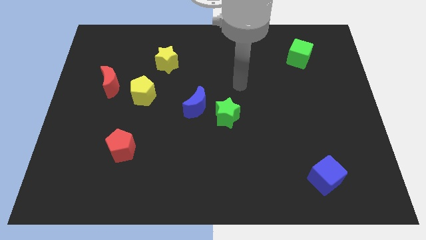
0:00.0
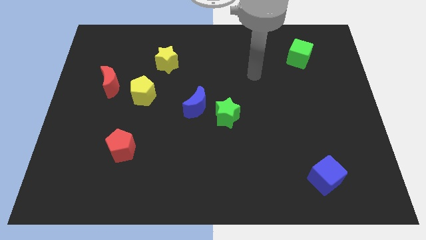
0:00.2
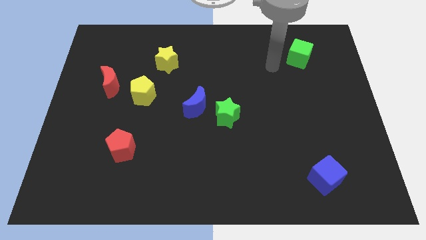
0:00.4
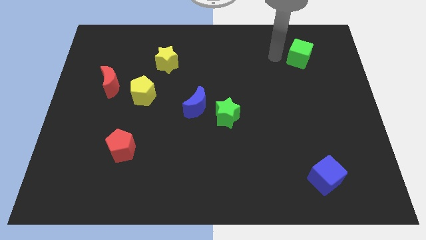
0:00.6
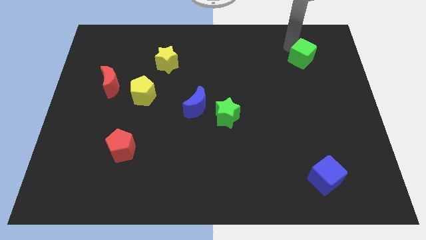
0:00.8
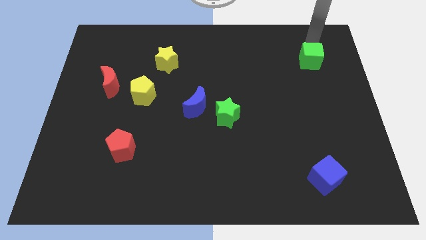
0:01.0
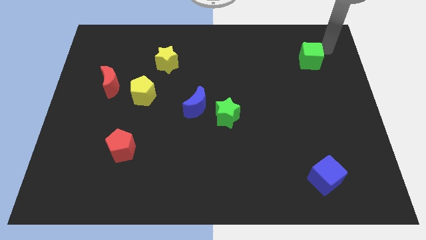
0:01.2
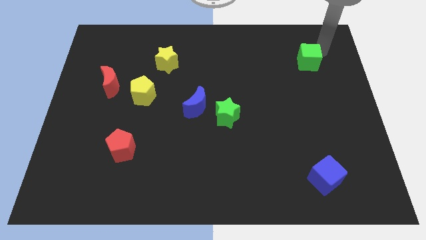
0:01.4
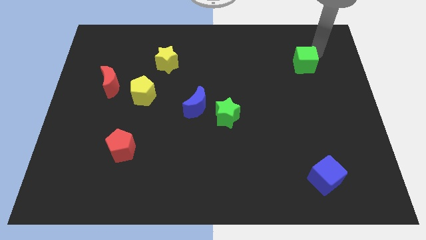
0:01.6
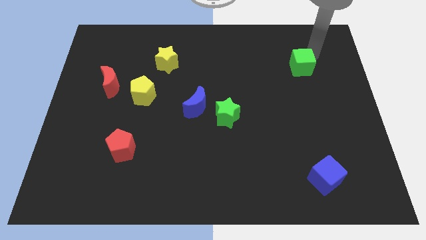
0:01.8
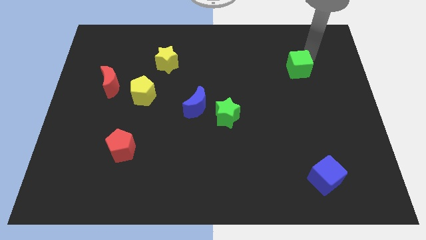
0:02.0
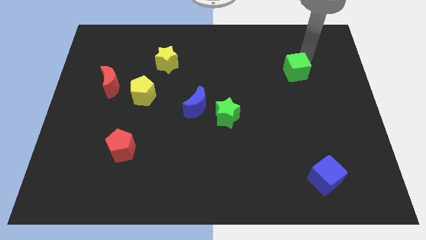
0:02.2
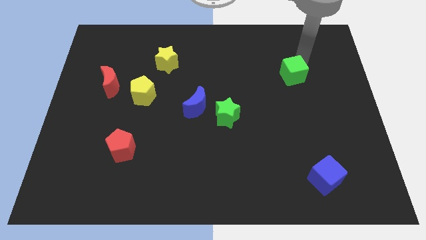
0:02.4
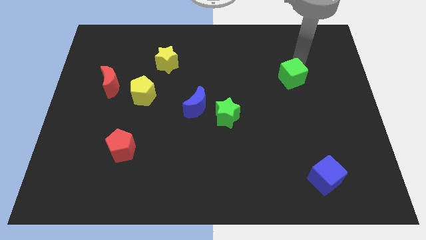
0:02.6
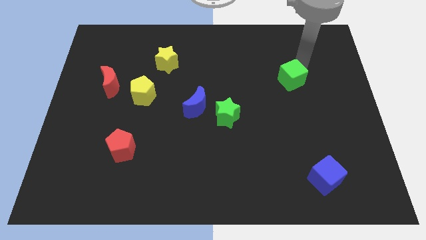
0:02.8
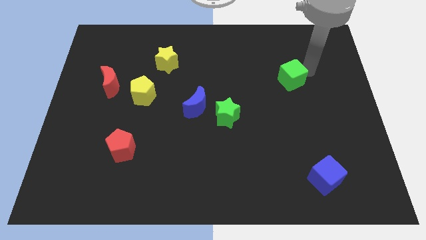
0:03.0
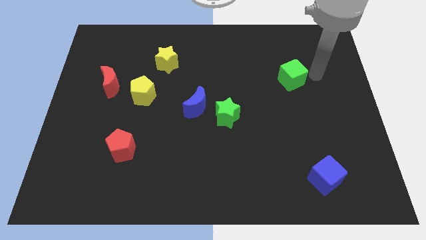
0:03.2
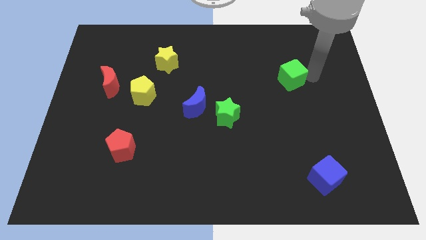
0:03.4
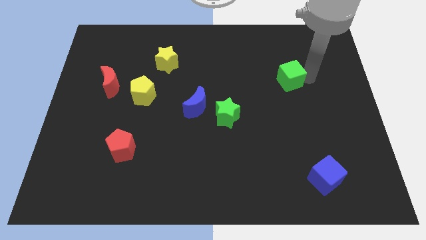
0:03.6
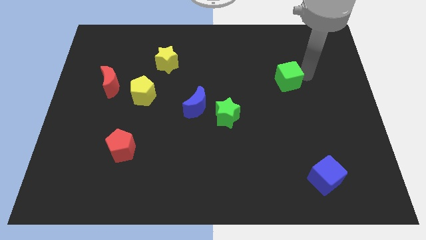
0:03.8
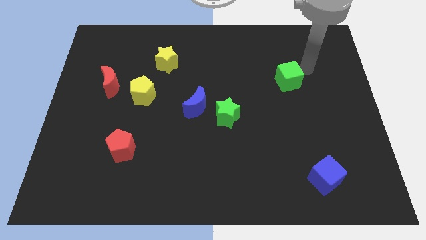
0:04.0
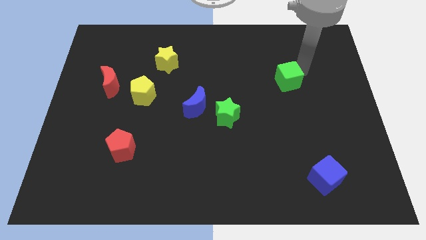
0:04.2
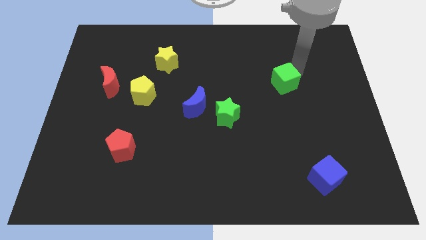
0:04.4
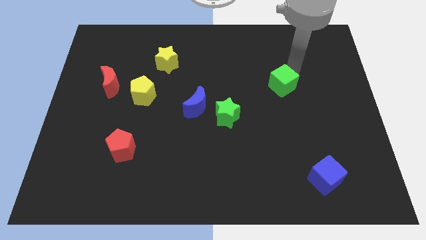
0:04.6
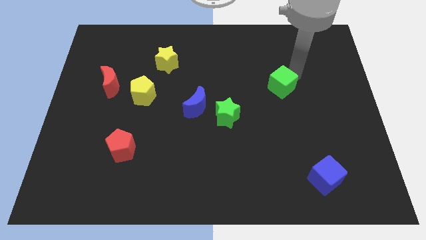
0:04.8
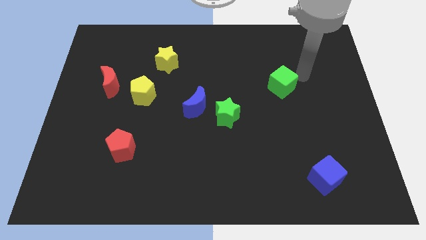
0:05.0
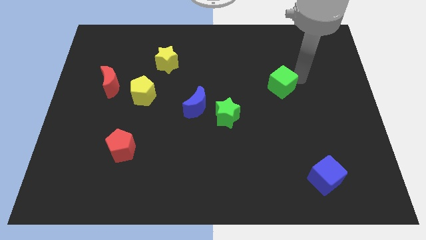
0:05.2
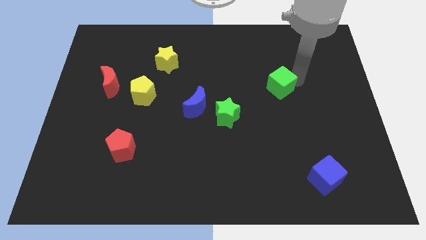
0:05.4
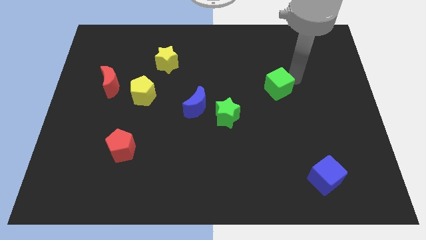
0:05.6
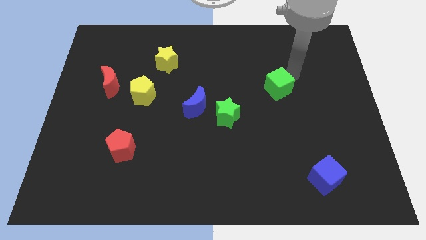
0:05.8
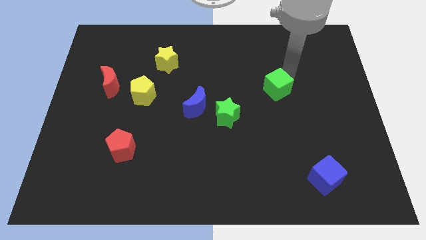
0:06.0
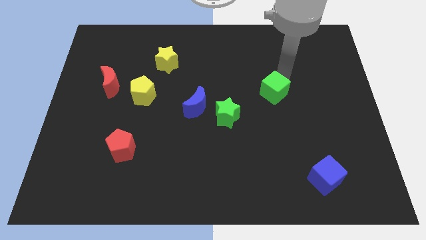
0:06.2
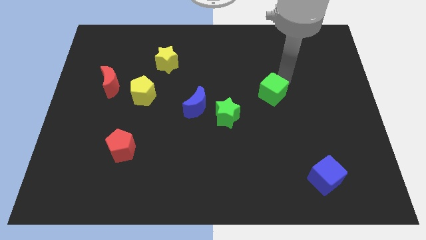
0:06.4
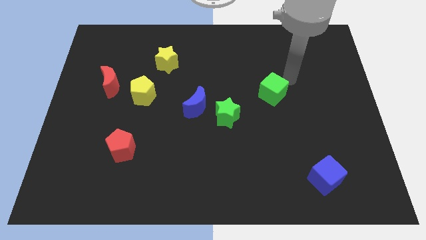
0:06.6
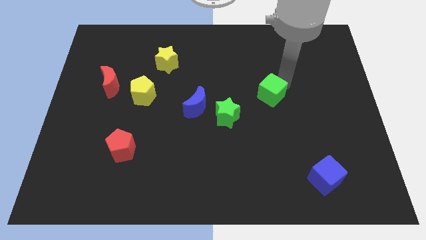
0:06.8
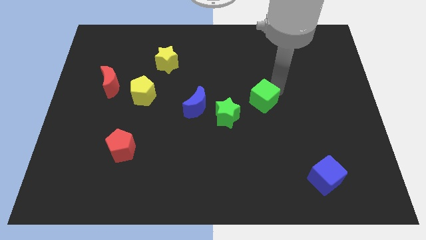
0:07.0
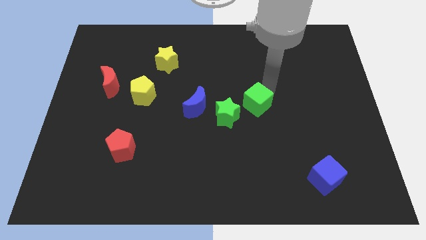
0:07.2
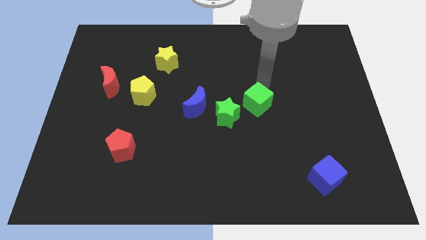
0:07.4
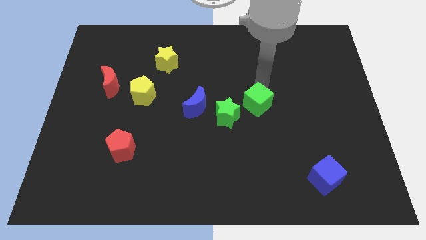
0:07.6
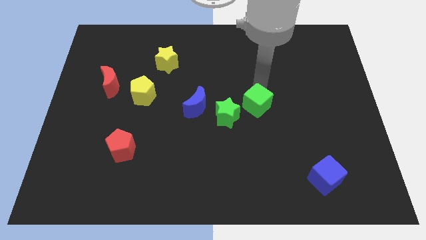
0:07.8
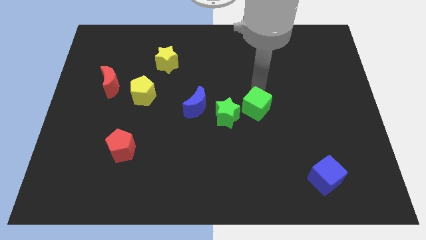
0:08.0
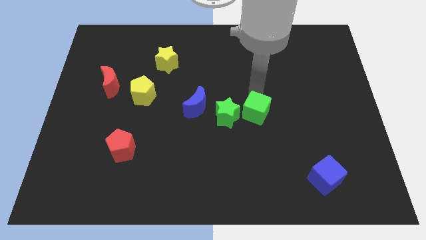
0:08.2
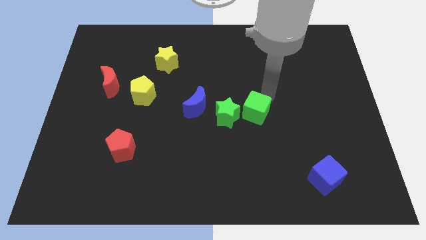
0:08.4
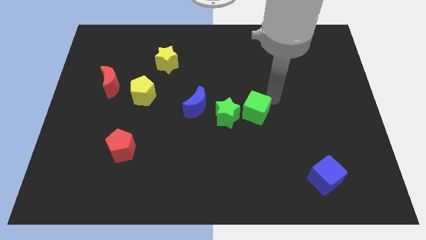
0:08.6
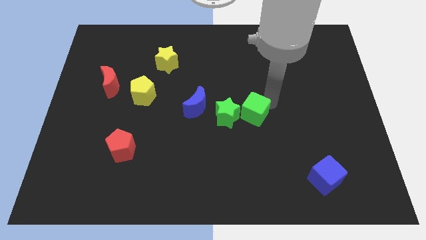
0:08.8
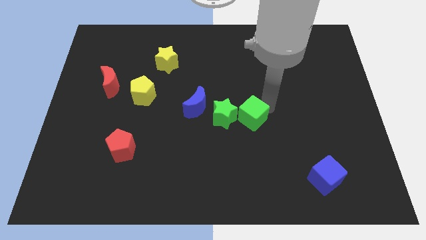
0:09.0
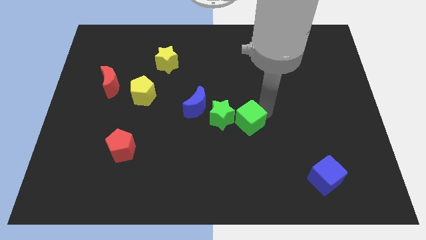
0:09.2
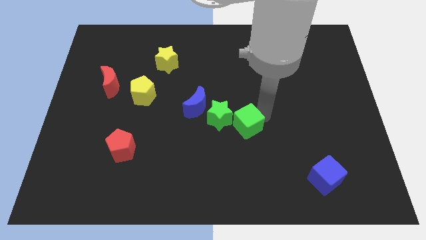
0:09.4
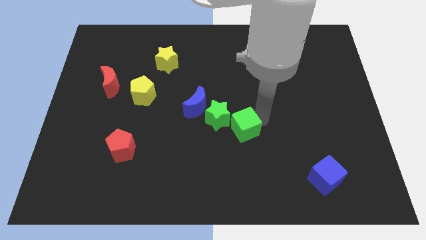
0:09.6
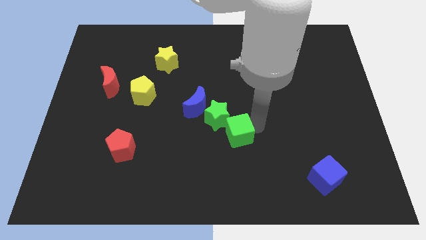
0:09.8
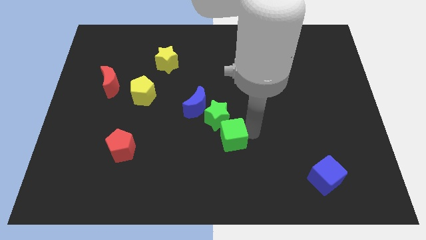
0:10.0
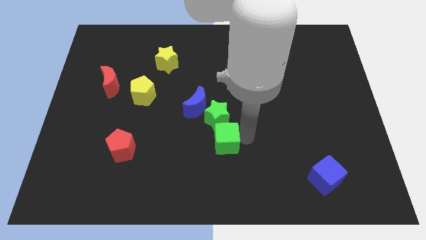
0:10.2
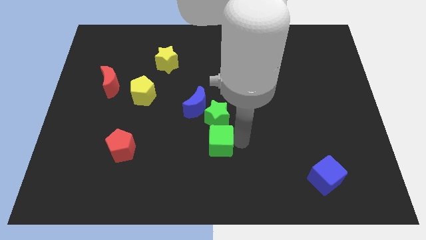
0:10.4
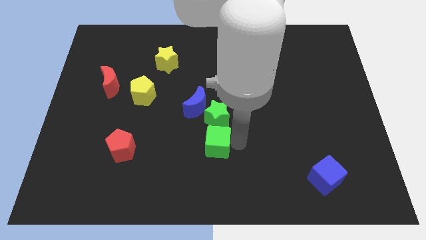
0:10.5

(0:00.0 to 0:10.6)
put the green cube to the bottom left side of the green star

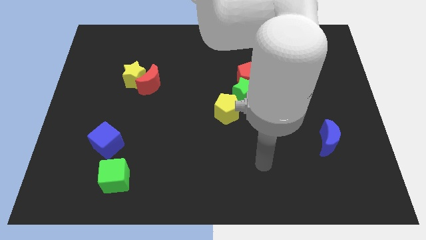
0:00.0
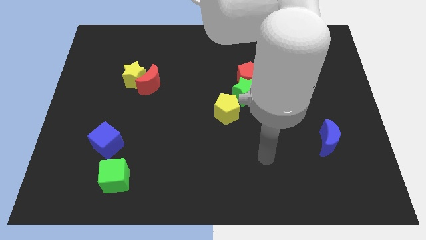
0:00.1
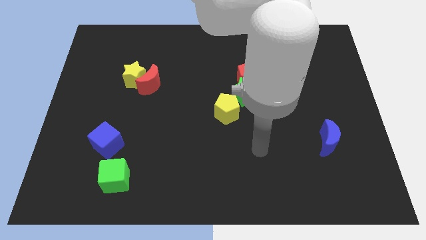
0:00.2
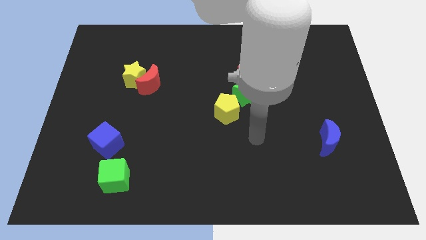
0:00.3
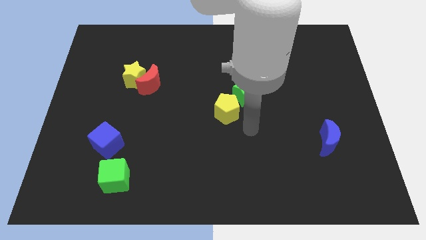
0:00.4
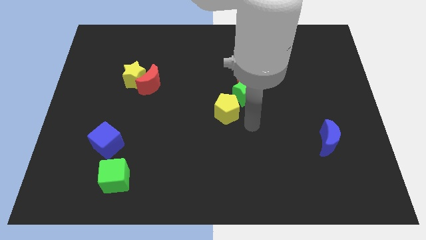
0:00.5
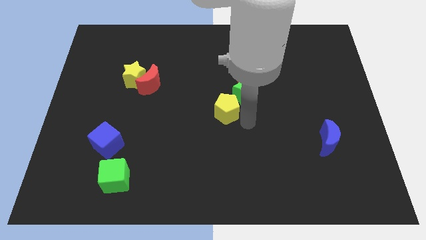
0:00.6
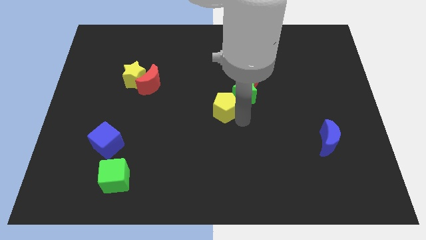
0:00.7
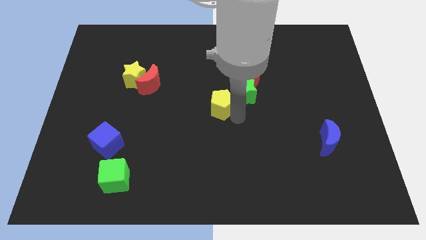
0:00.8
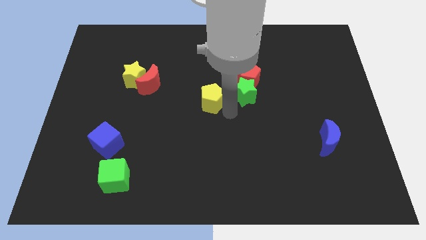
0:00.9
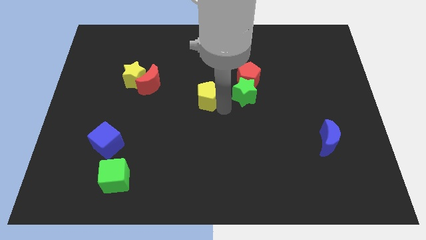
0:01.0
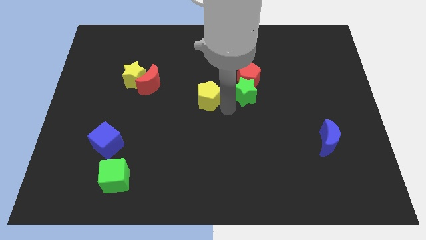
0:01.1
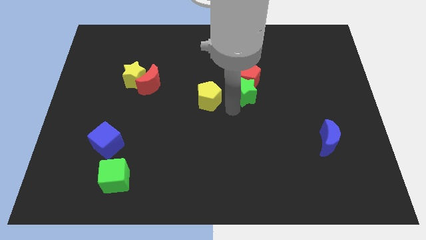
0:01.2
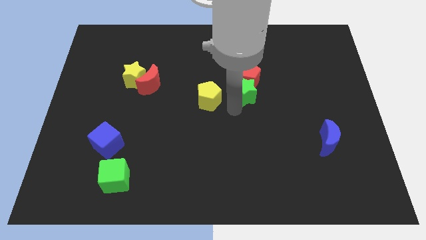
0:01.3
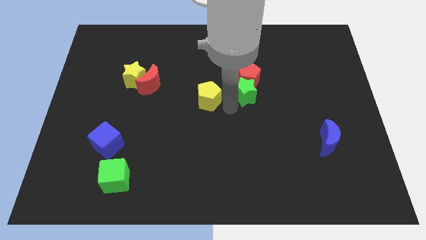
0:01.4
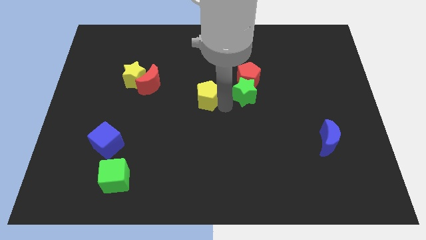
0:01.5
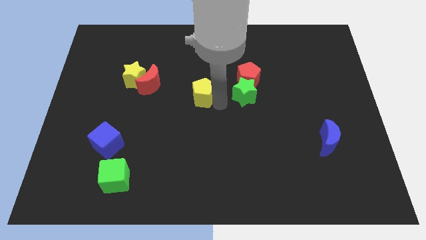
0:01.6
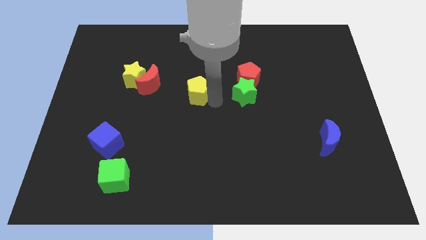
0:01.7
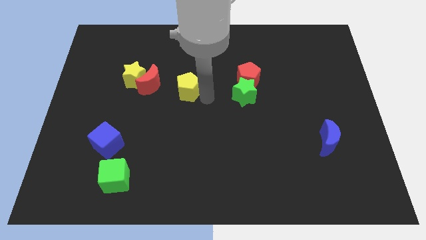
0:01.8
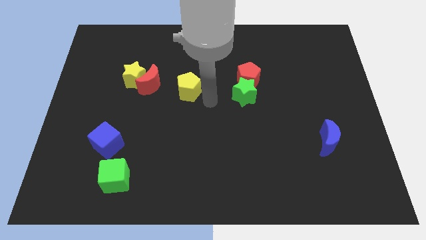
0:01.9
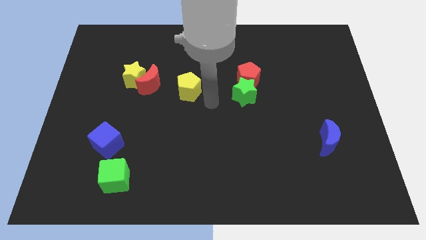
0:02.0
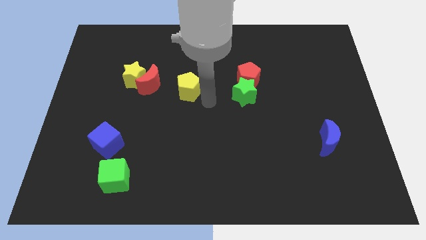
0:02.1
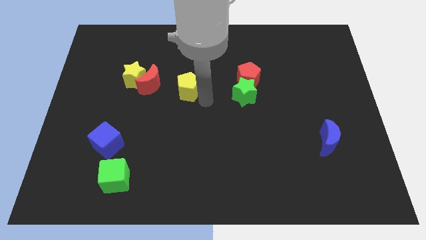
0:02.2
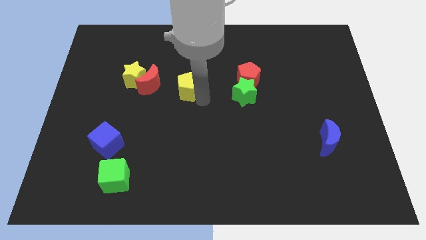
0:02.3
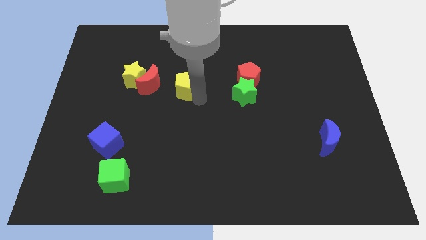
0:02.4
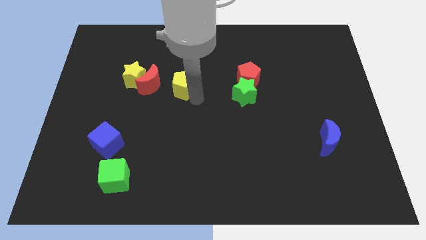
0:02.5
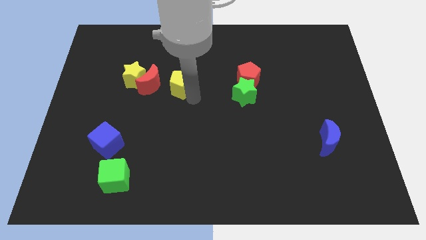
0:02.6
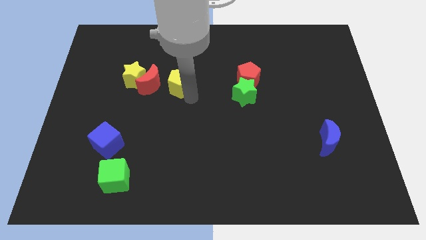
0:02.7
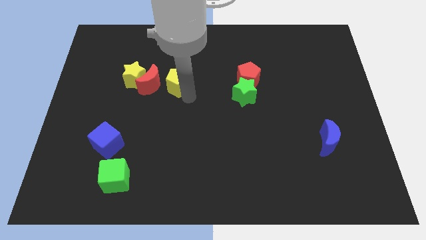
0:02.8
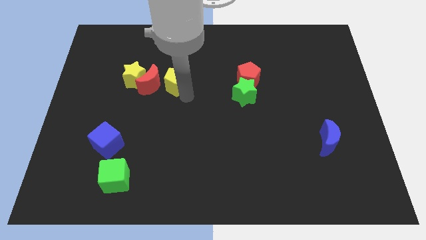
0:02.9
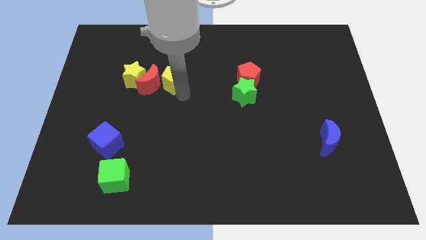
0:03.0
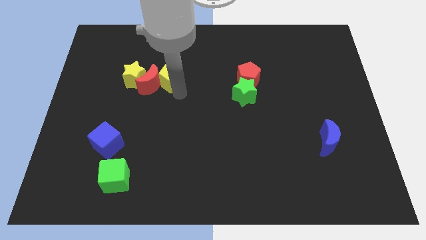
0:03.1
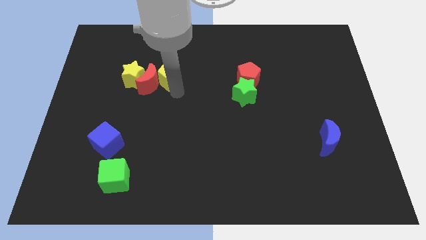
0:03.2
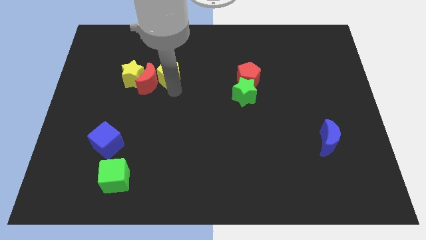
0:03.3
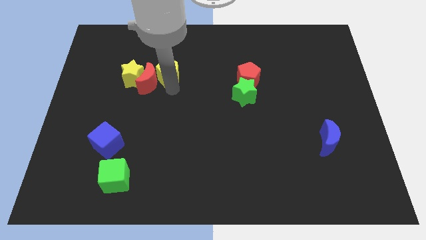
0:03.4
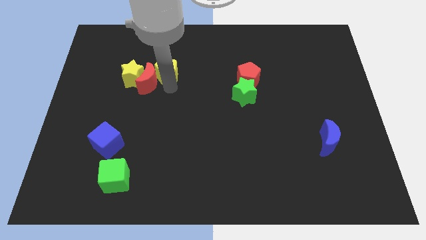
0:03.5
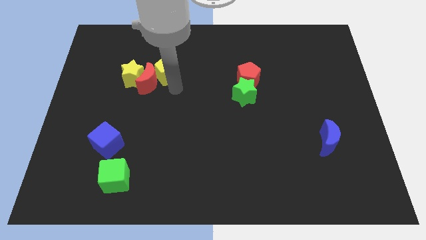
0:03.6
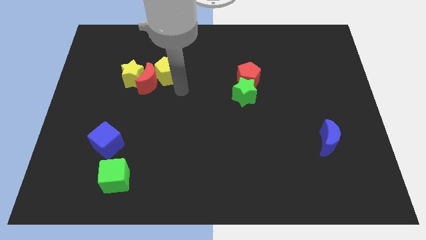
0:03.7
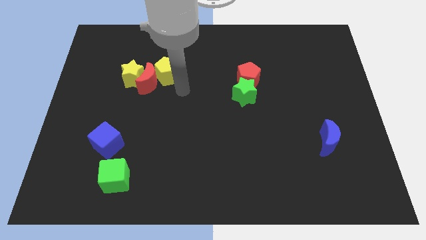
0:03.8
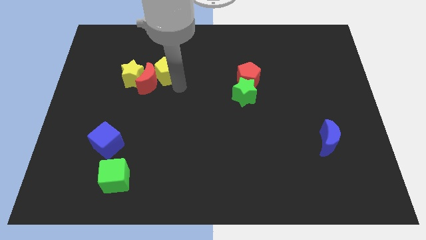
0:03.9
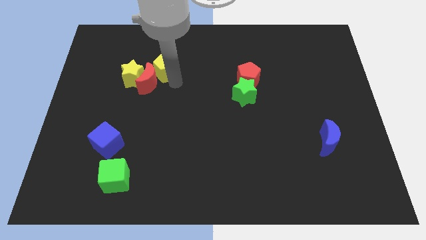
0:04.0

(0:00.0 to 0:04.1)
push the yellow pentagon to the top right of the yellow star
